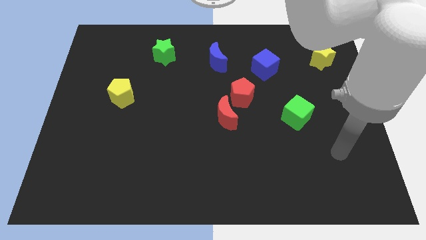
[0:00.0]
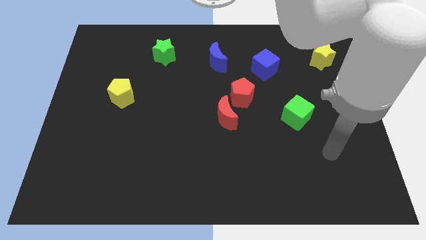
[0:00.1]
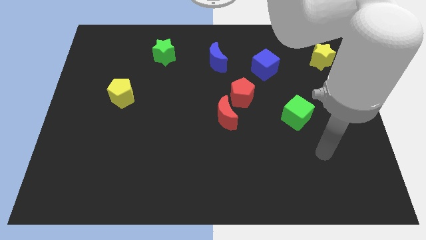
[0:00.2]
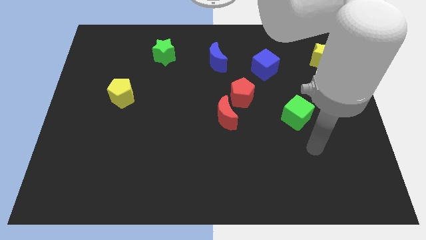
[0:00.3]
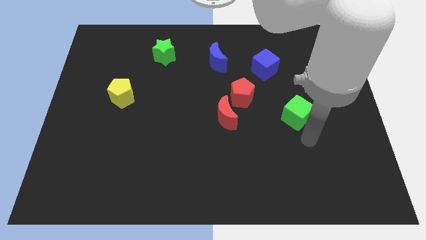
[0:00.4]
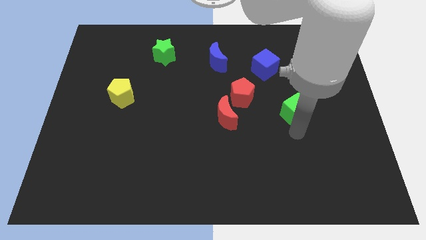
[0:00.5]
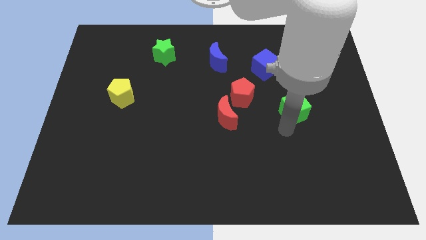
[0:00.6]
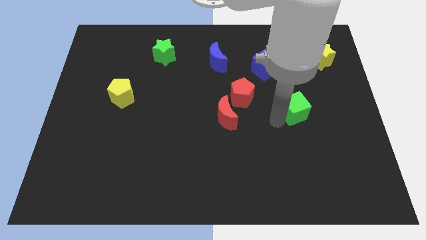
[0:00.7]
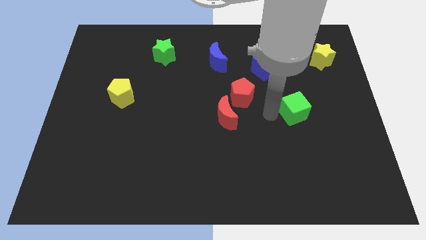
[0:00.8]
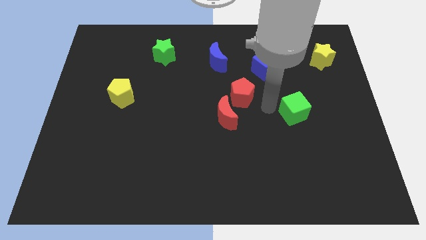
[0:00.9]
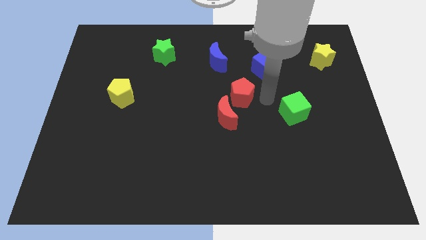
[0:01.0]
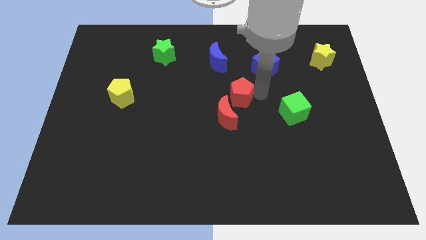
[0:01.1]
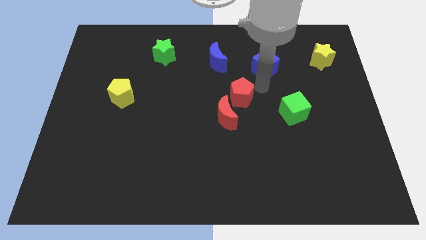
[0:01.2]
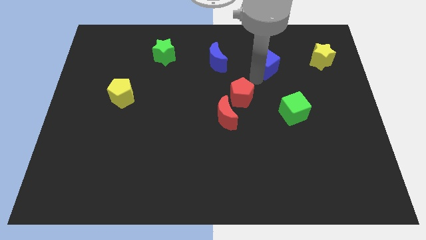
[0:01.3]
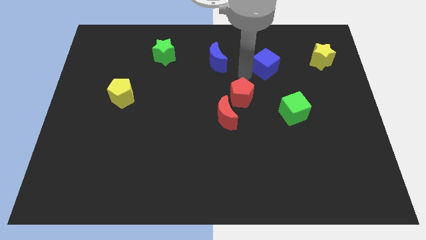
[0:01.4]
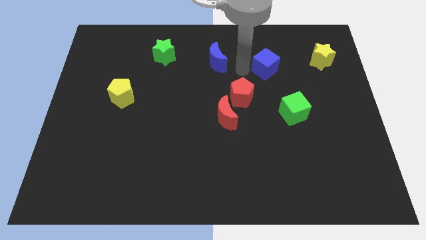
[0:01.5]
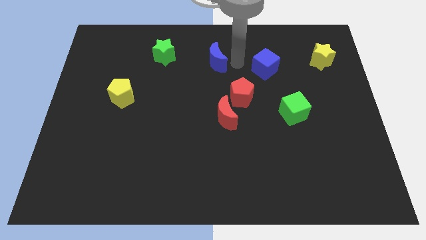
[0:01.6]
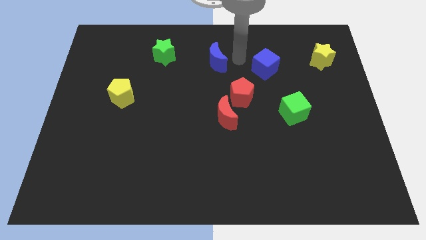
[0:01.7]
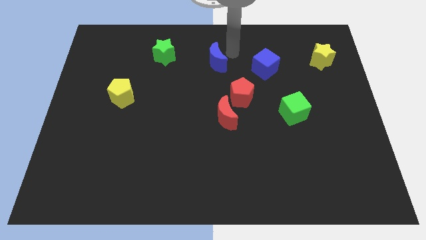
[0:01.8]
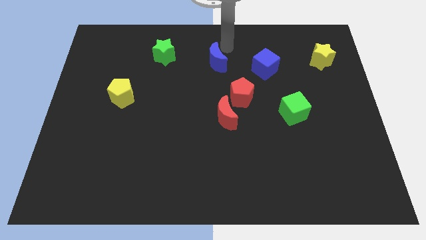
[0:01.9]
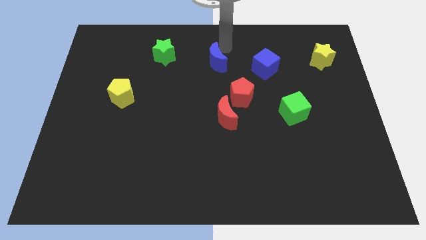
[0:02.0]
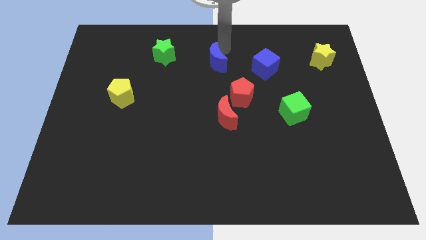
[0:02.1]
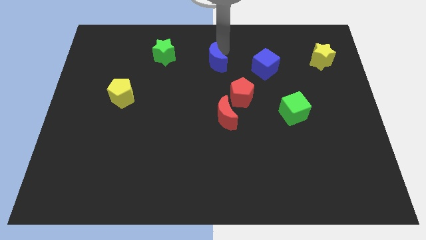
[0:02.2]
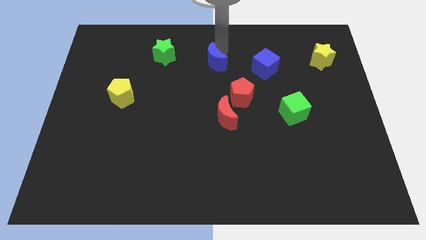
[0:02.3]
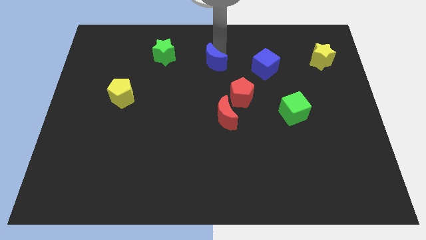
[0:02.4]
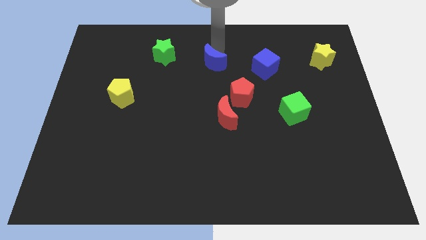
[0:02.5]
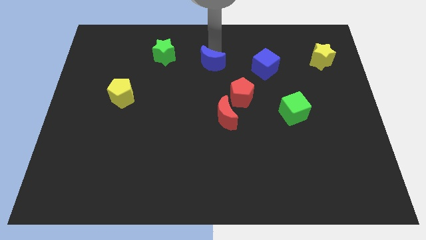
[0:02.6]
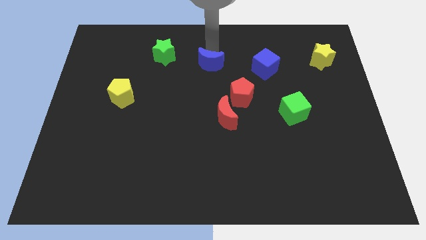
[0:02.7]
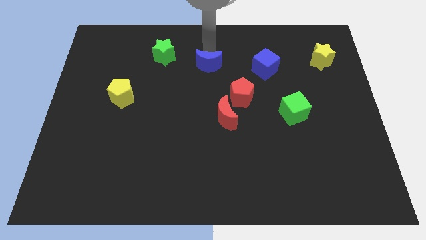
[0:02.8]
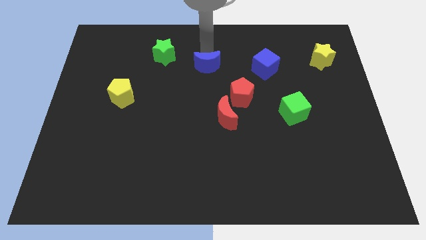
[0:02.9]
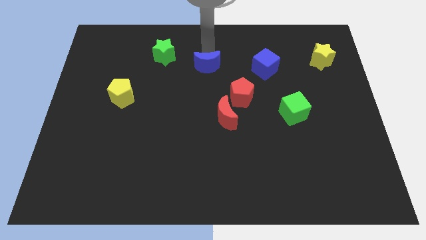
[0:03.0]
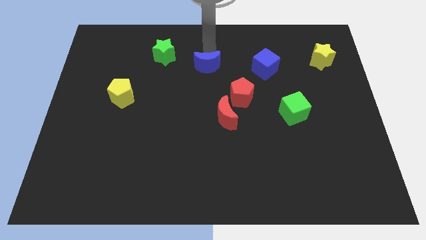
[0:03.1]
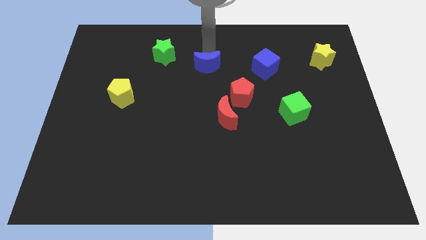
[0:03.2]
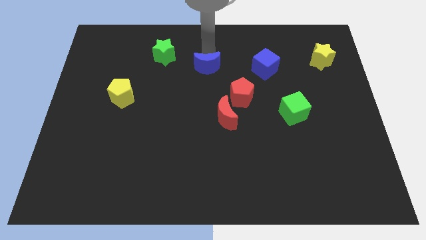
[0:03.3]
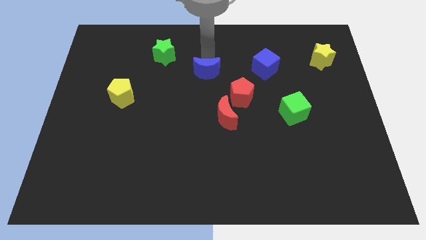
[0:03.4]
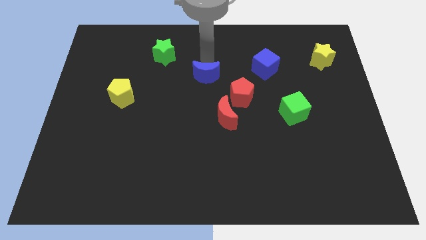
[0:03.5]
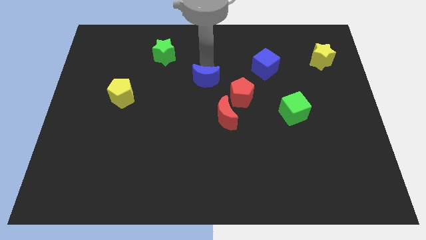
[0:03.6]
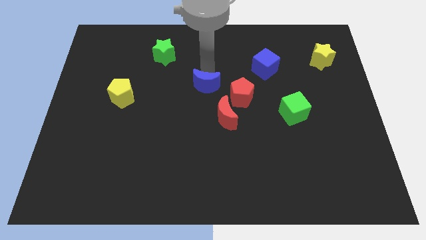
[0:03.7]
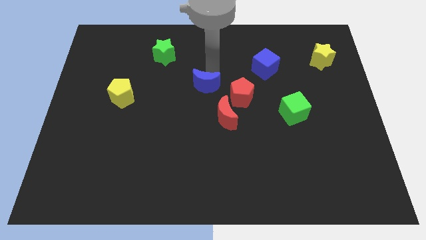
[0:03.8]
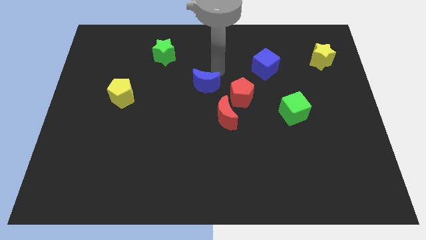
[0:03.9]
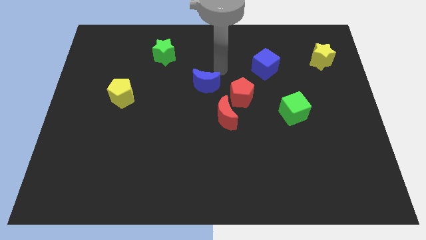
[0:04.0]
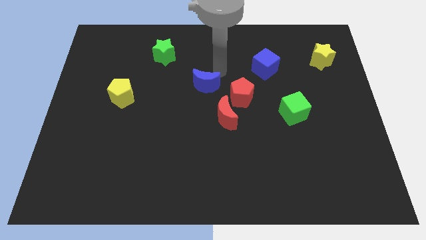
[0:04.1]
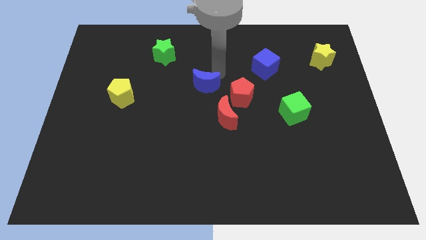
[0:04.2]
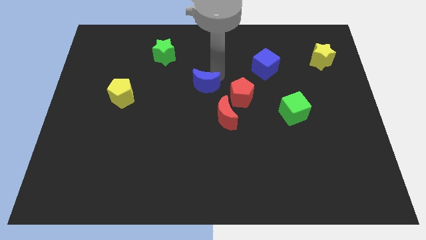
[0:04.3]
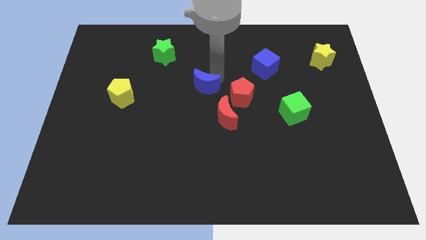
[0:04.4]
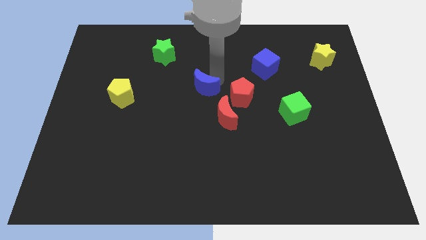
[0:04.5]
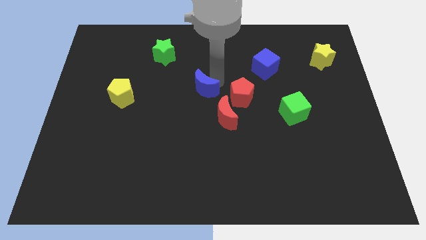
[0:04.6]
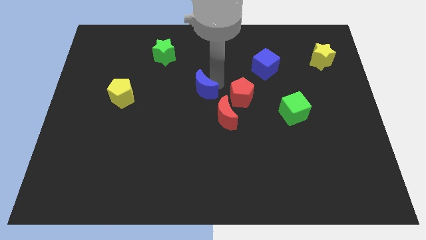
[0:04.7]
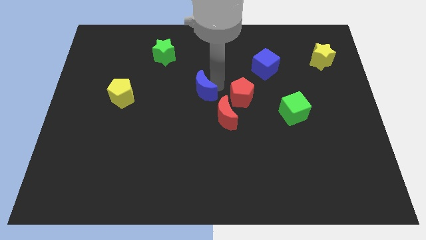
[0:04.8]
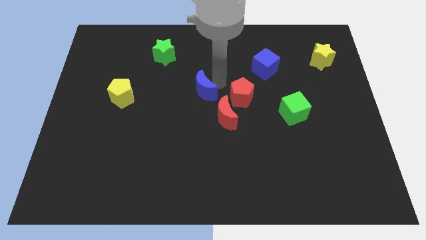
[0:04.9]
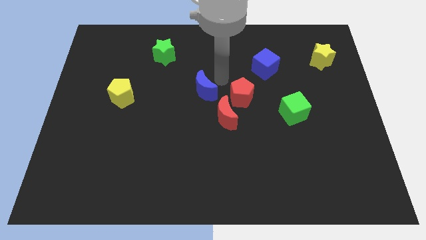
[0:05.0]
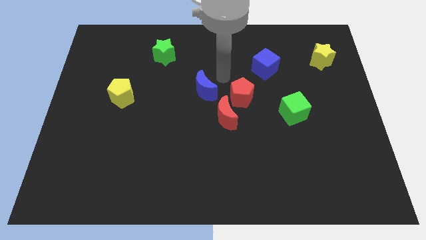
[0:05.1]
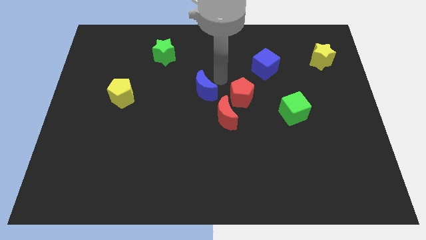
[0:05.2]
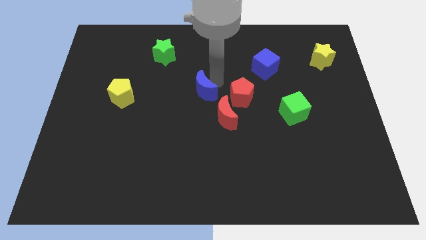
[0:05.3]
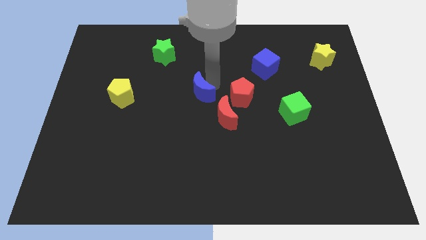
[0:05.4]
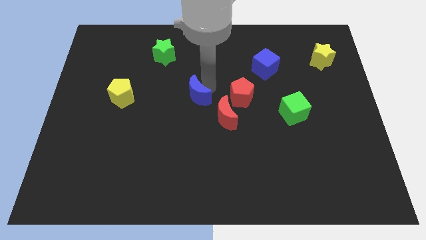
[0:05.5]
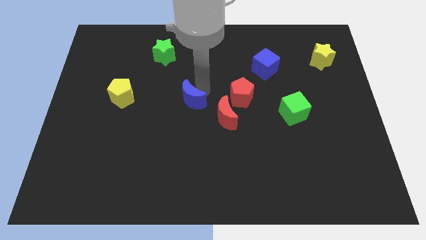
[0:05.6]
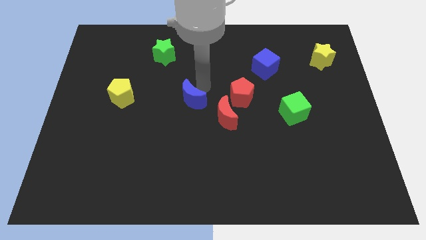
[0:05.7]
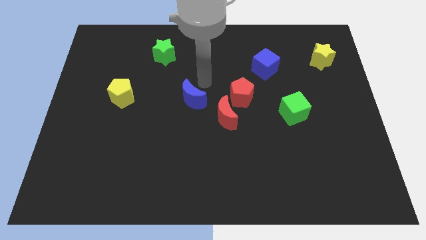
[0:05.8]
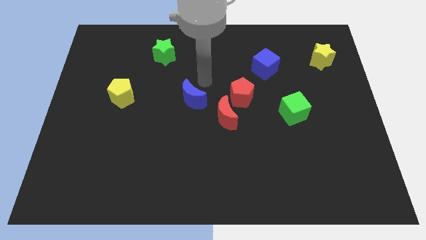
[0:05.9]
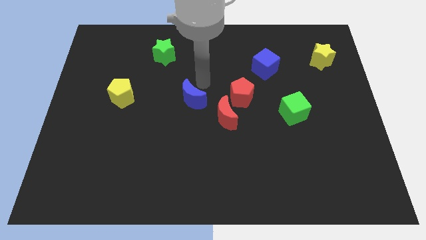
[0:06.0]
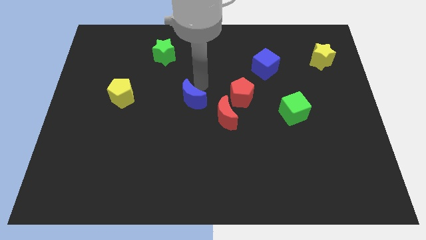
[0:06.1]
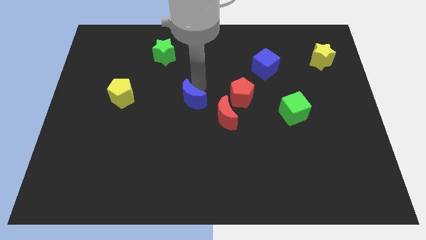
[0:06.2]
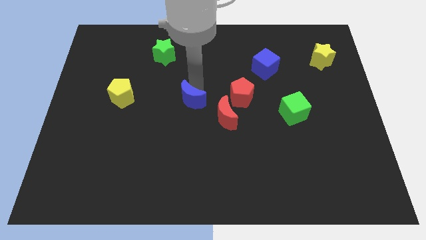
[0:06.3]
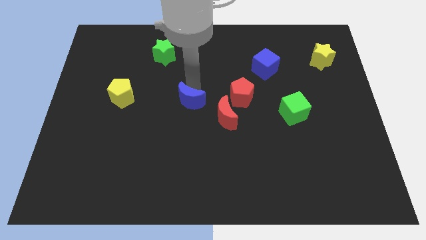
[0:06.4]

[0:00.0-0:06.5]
put the blue moon just left of the red moon
